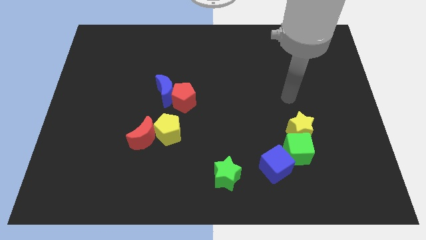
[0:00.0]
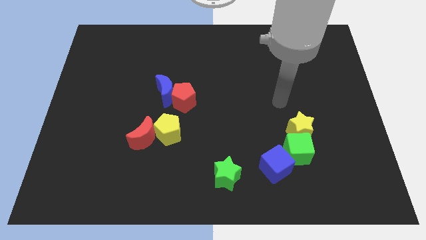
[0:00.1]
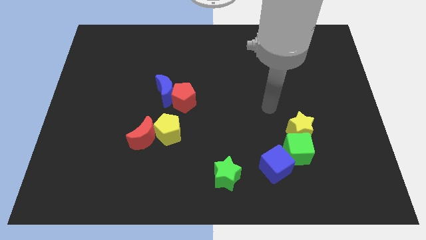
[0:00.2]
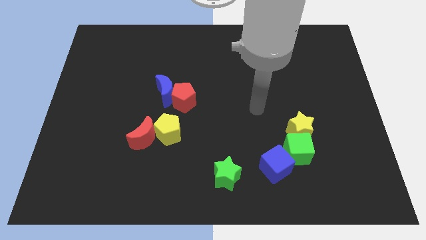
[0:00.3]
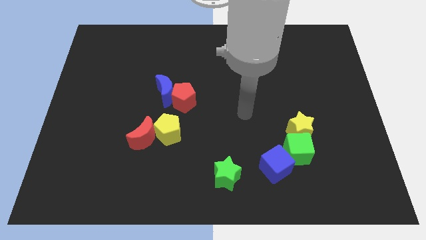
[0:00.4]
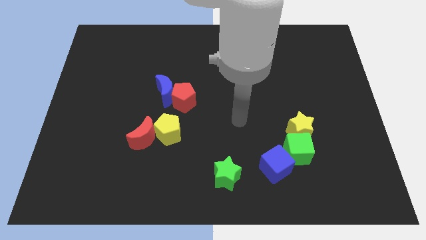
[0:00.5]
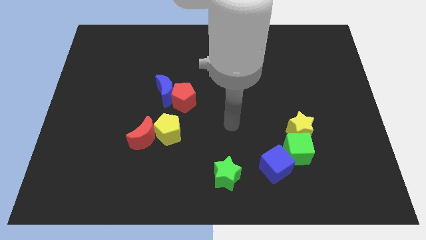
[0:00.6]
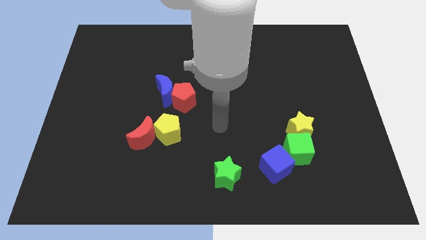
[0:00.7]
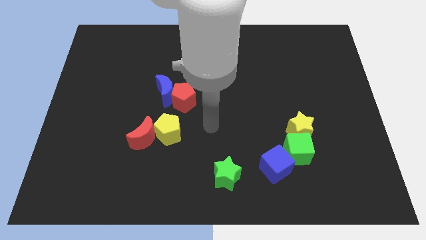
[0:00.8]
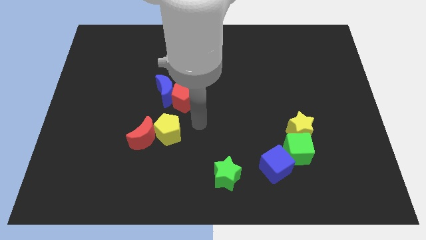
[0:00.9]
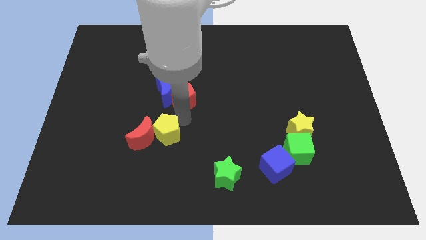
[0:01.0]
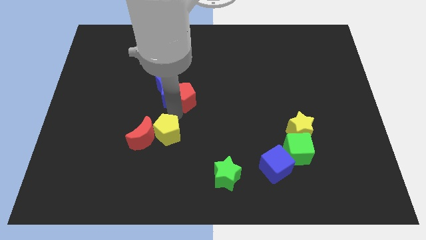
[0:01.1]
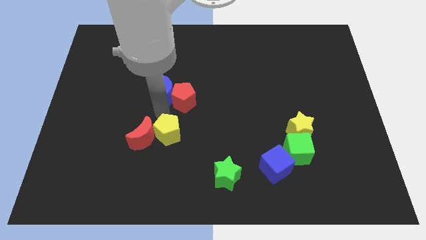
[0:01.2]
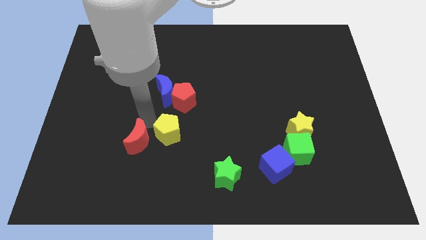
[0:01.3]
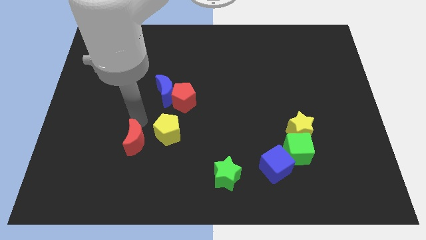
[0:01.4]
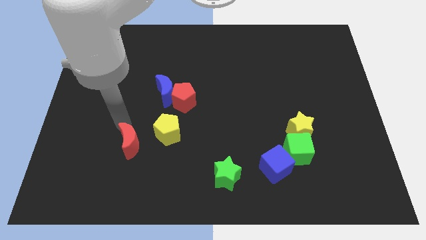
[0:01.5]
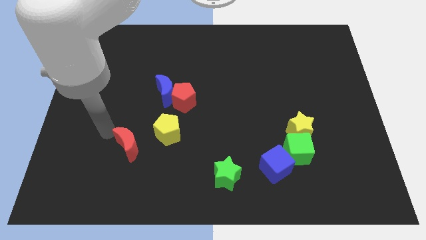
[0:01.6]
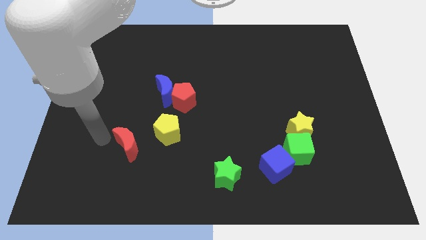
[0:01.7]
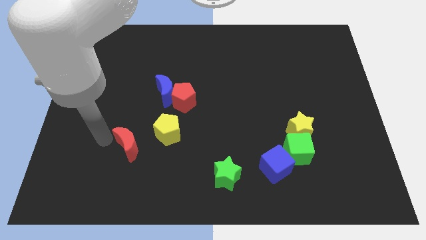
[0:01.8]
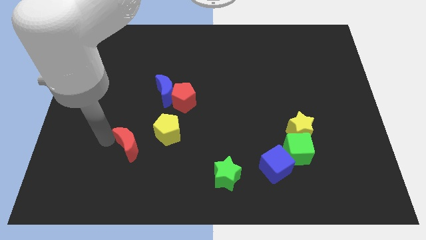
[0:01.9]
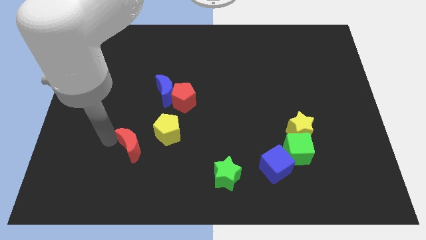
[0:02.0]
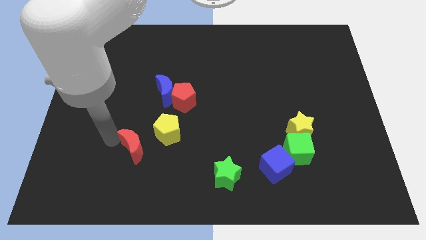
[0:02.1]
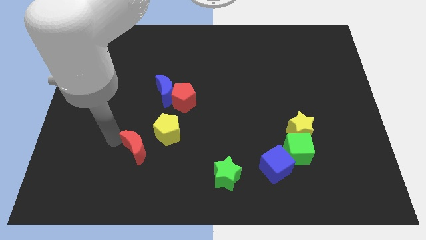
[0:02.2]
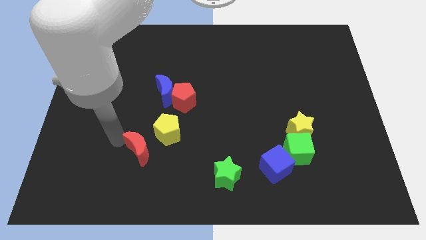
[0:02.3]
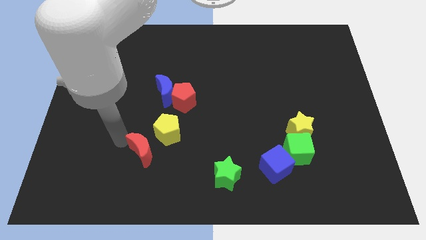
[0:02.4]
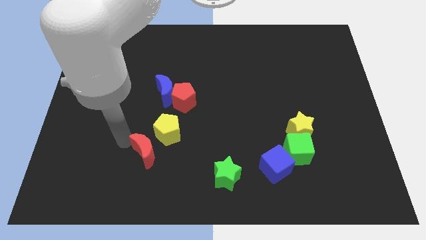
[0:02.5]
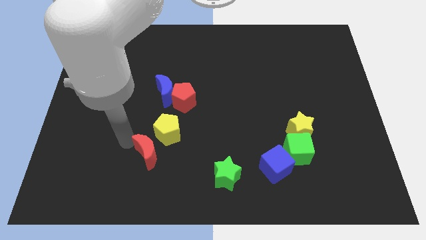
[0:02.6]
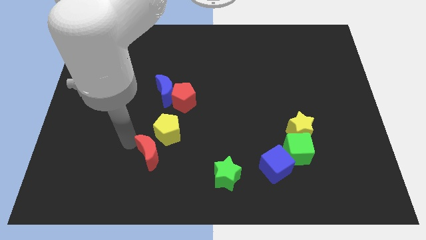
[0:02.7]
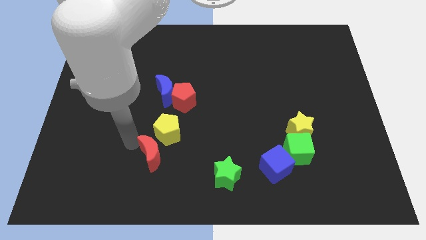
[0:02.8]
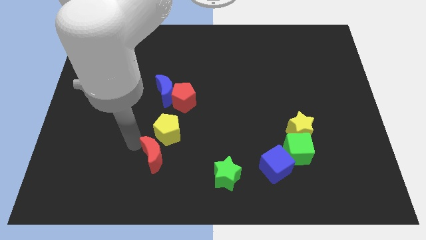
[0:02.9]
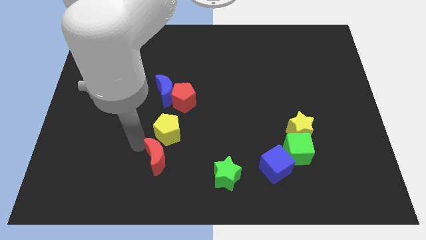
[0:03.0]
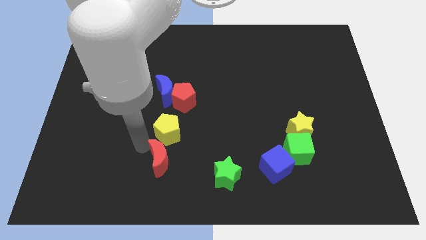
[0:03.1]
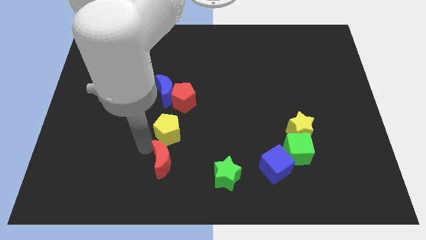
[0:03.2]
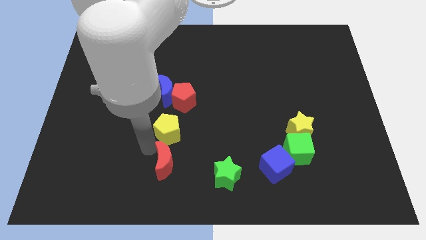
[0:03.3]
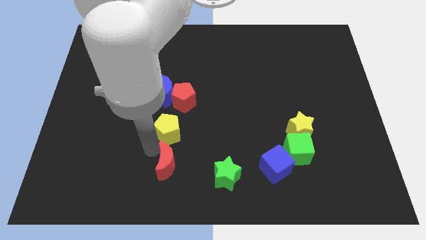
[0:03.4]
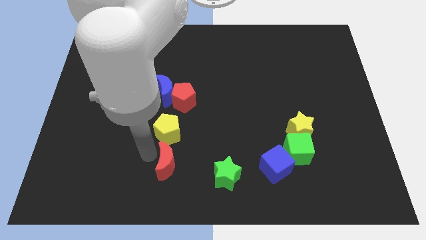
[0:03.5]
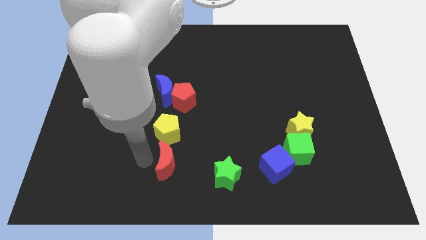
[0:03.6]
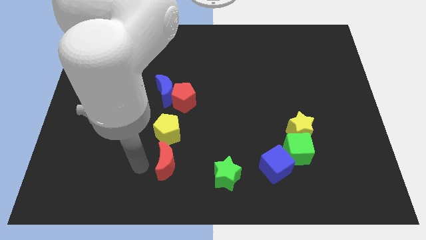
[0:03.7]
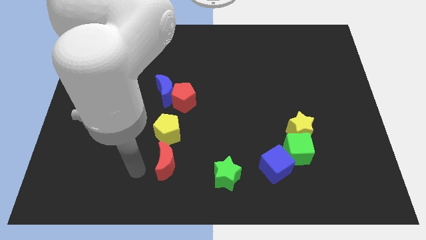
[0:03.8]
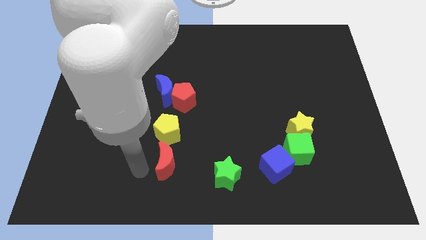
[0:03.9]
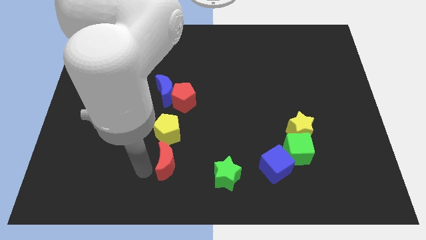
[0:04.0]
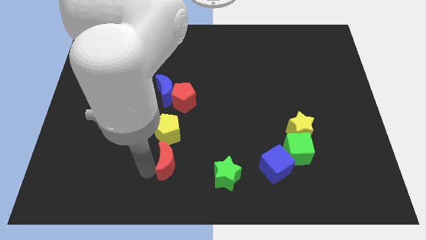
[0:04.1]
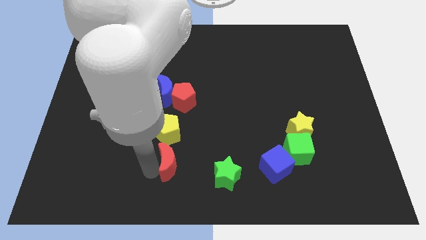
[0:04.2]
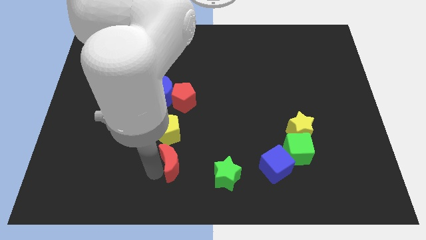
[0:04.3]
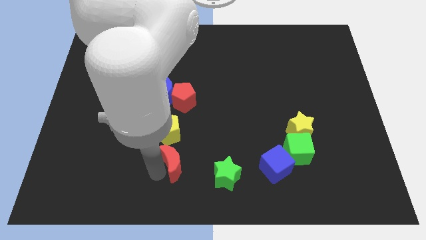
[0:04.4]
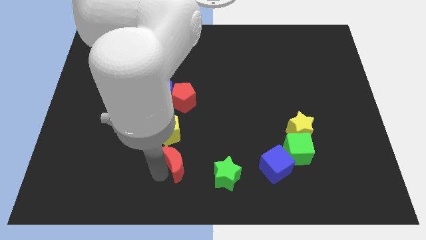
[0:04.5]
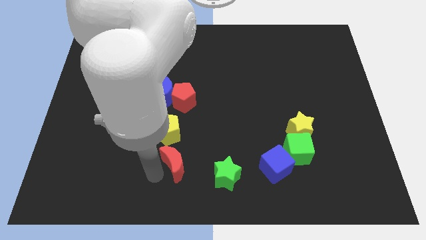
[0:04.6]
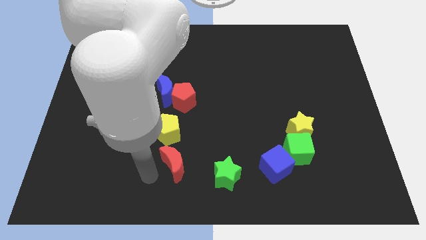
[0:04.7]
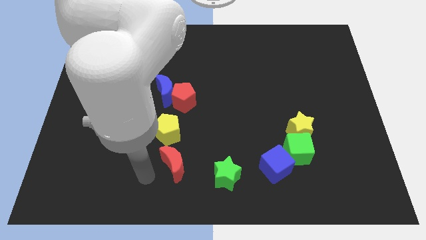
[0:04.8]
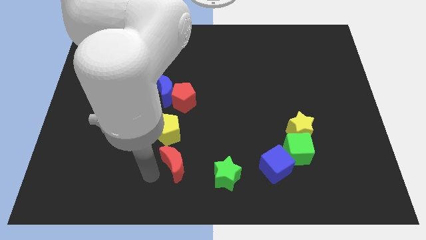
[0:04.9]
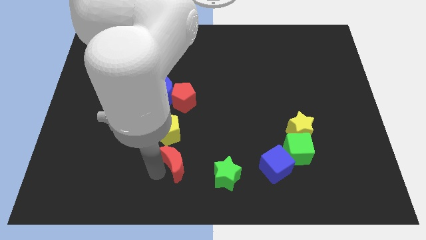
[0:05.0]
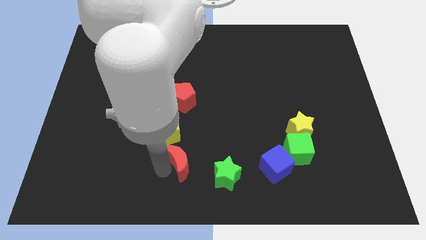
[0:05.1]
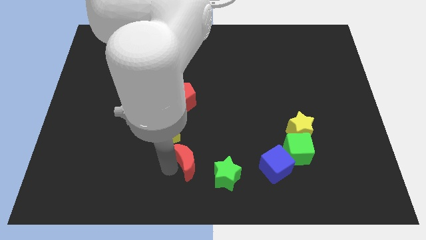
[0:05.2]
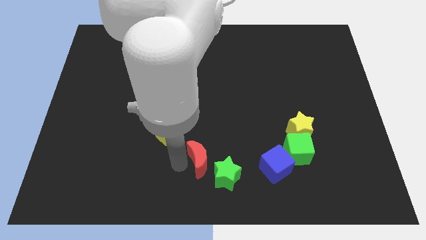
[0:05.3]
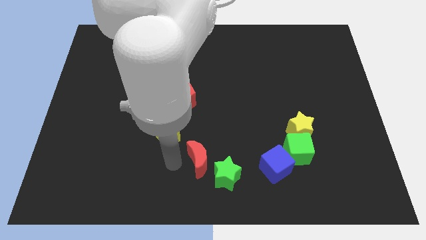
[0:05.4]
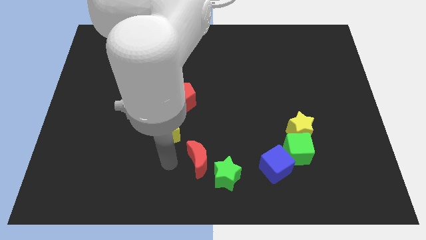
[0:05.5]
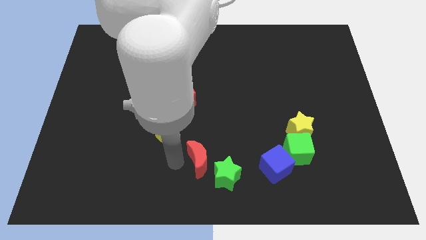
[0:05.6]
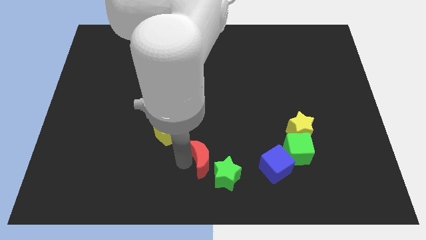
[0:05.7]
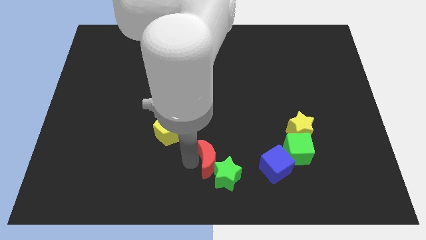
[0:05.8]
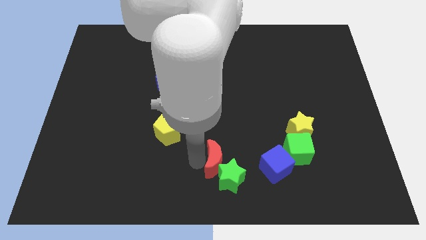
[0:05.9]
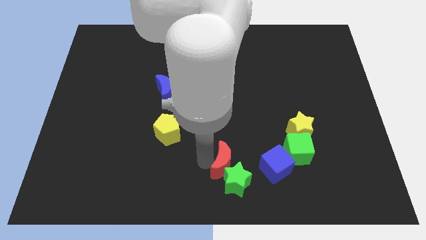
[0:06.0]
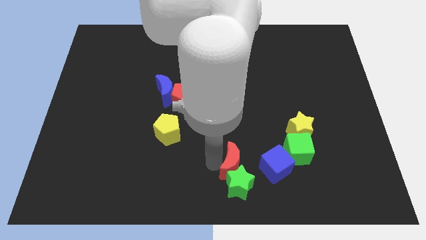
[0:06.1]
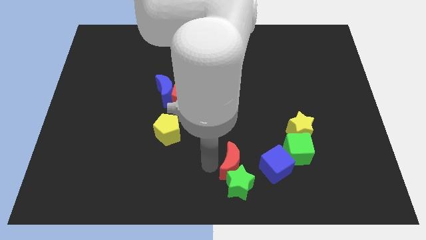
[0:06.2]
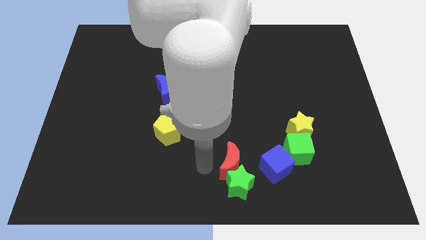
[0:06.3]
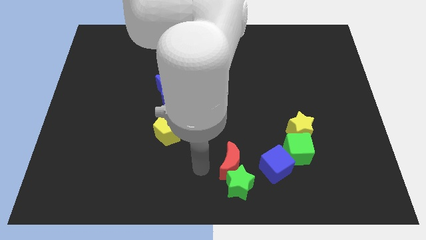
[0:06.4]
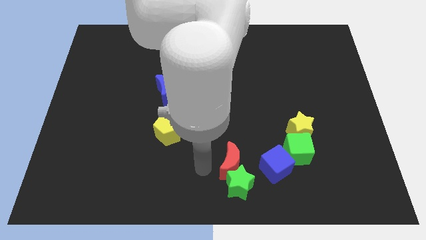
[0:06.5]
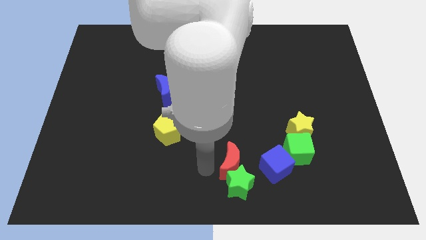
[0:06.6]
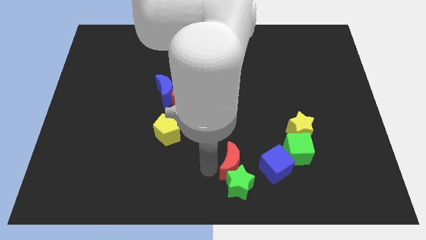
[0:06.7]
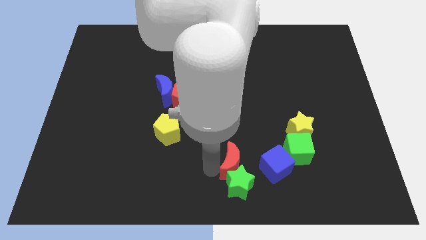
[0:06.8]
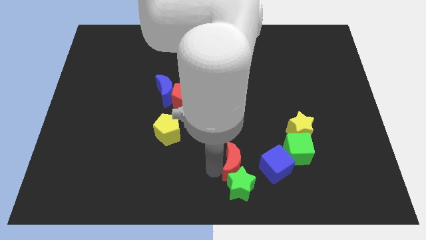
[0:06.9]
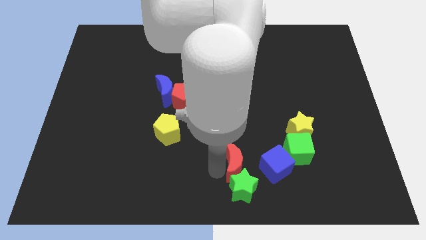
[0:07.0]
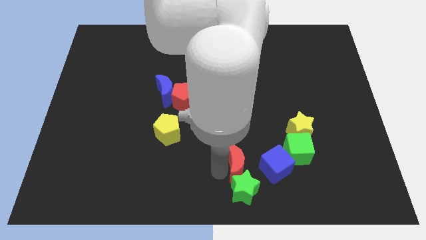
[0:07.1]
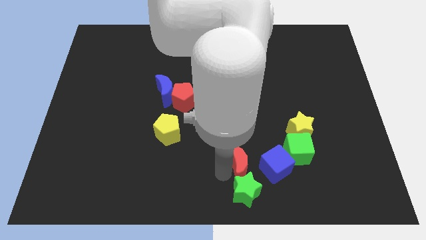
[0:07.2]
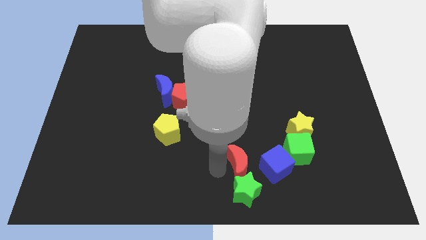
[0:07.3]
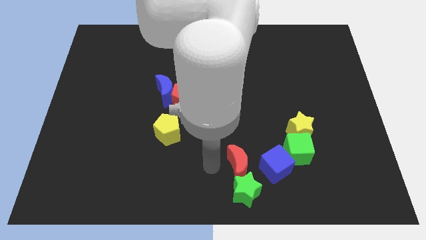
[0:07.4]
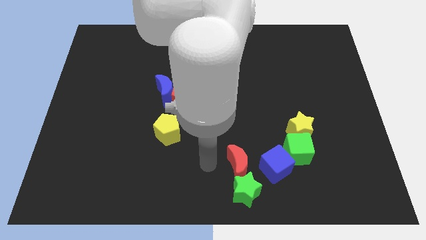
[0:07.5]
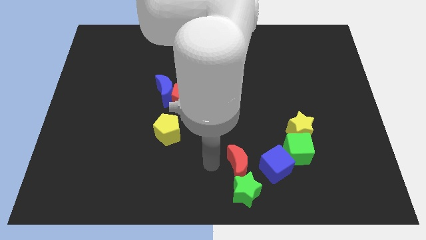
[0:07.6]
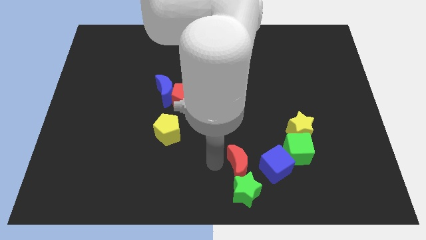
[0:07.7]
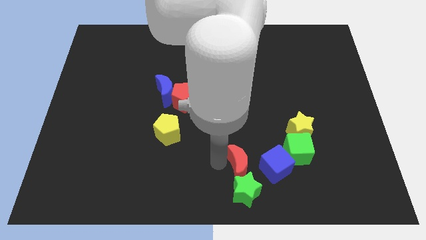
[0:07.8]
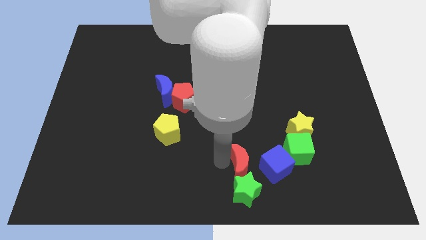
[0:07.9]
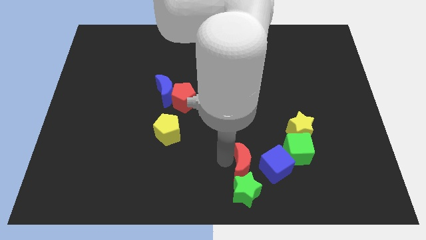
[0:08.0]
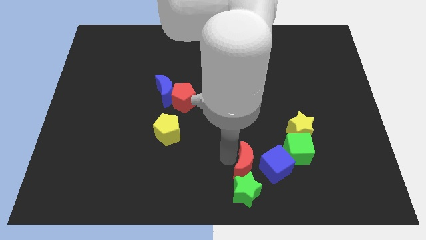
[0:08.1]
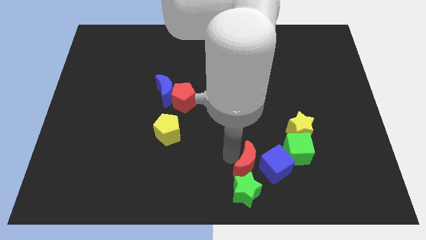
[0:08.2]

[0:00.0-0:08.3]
put the red moon next to the blue cube
